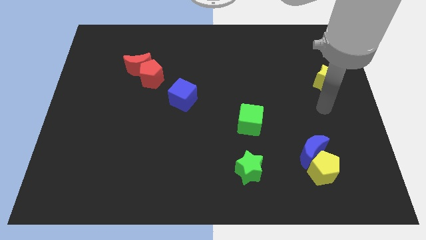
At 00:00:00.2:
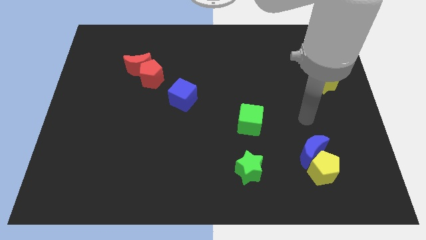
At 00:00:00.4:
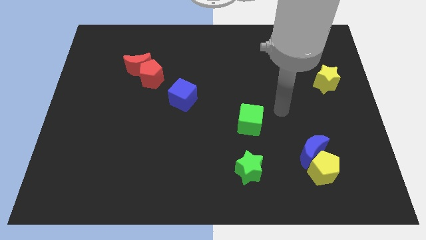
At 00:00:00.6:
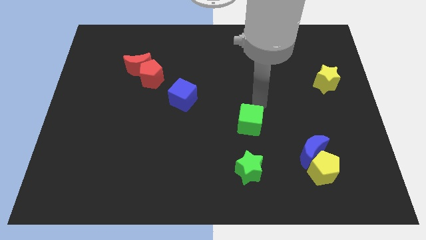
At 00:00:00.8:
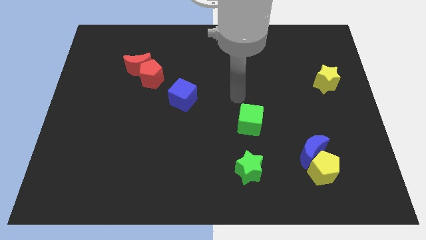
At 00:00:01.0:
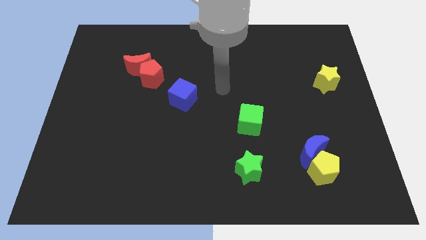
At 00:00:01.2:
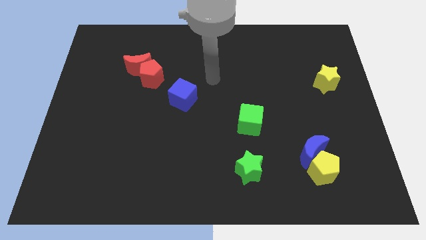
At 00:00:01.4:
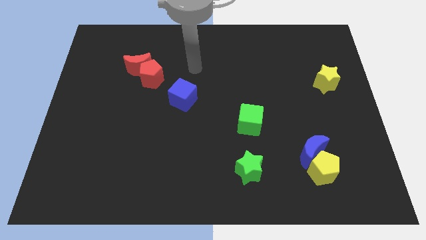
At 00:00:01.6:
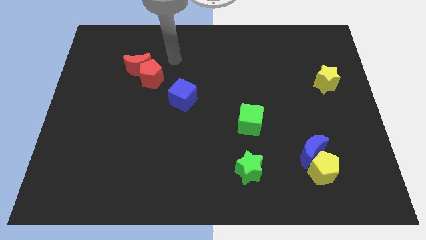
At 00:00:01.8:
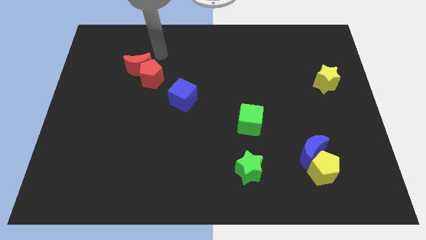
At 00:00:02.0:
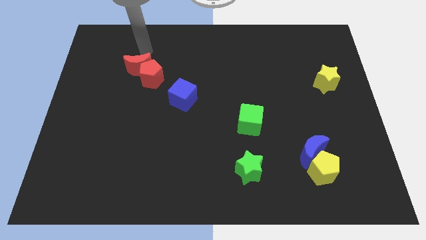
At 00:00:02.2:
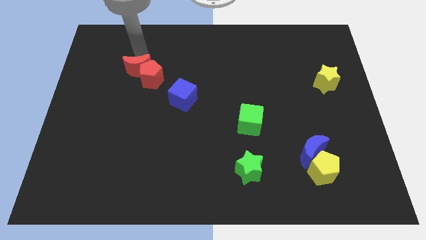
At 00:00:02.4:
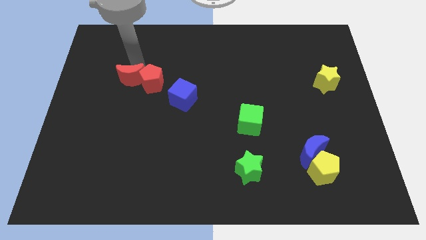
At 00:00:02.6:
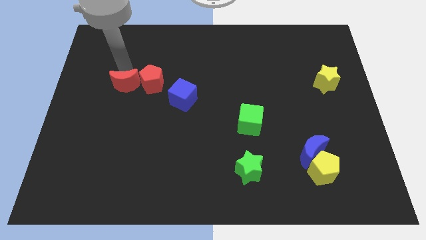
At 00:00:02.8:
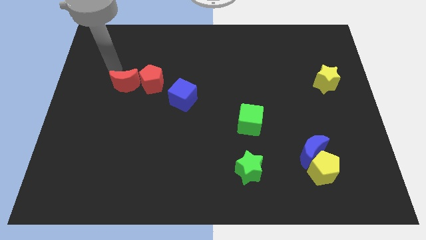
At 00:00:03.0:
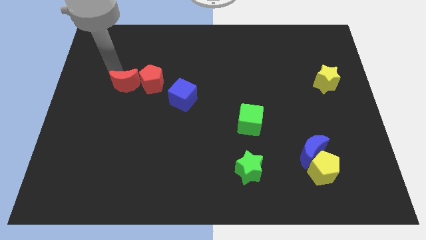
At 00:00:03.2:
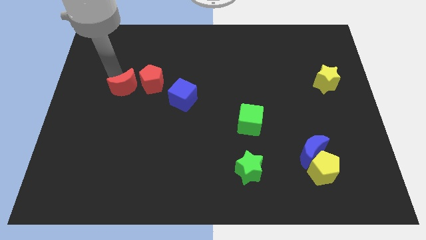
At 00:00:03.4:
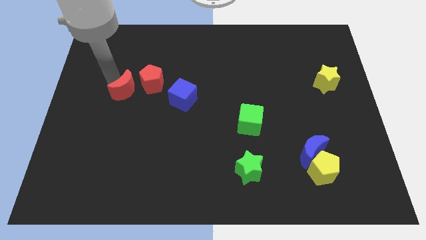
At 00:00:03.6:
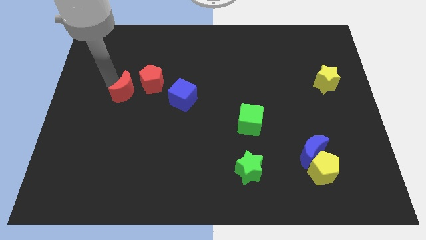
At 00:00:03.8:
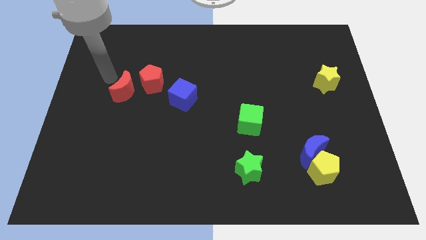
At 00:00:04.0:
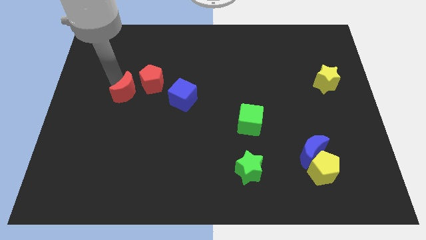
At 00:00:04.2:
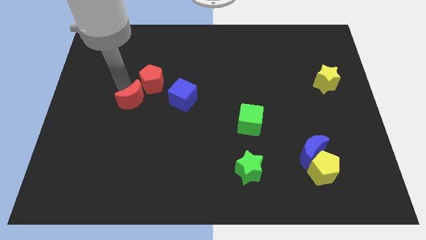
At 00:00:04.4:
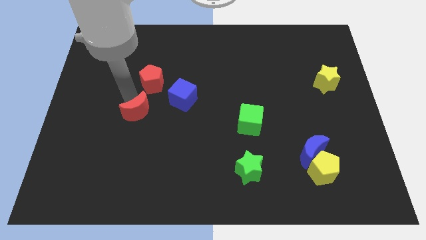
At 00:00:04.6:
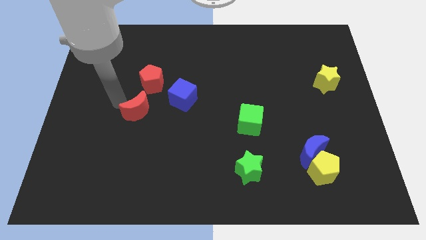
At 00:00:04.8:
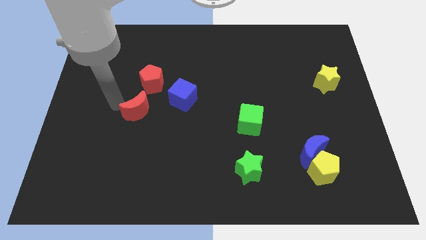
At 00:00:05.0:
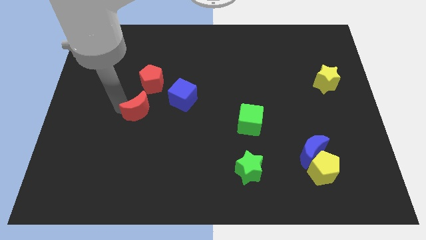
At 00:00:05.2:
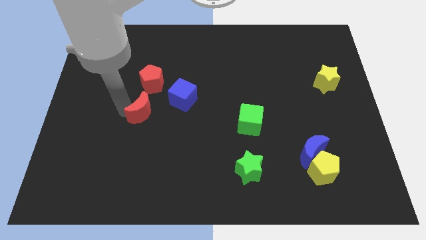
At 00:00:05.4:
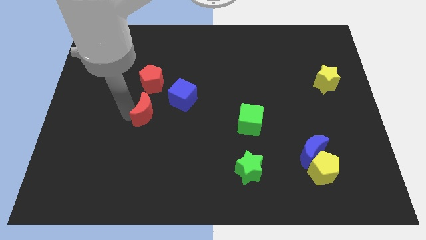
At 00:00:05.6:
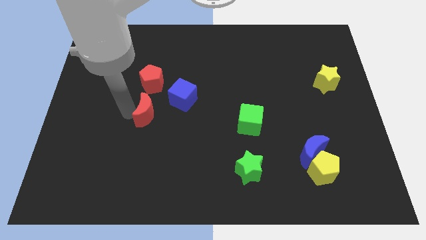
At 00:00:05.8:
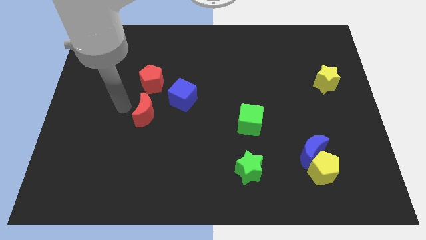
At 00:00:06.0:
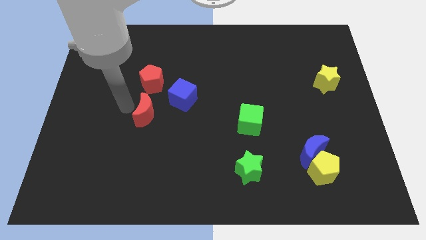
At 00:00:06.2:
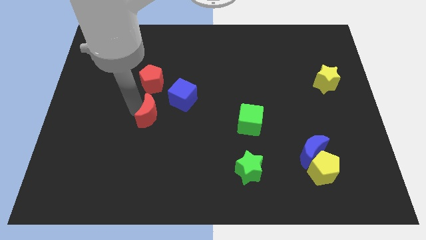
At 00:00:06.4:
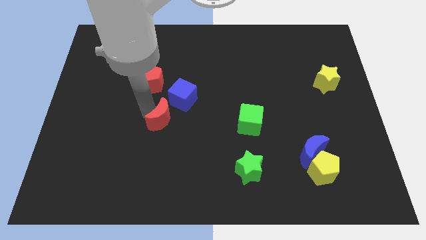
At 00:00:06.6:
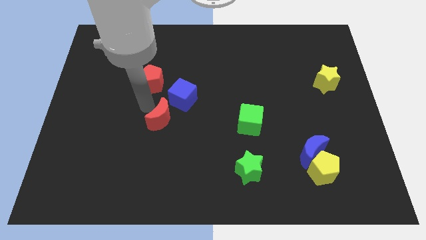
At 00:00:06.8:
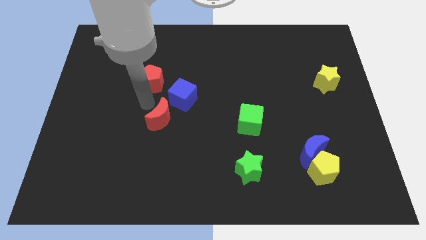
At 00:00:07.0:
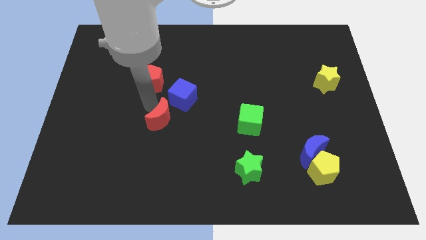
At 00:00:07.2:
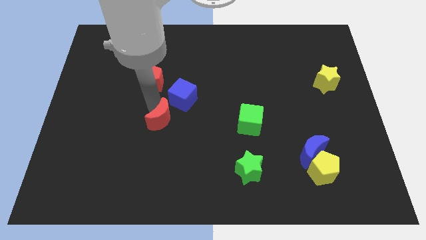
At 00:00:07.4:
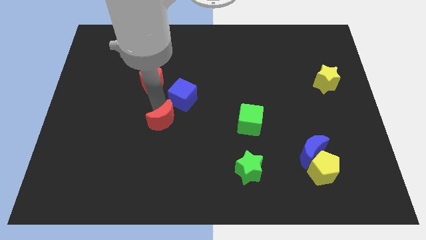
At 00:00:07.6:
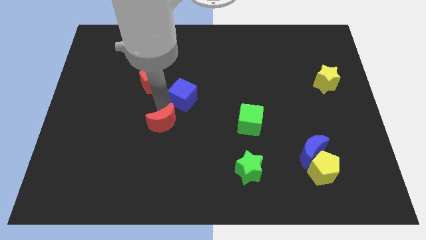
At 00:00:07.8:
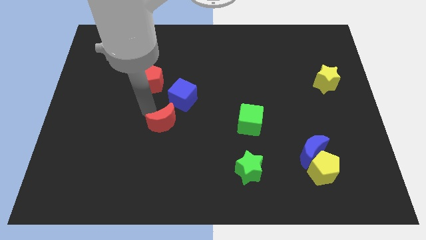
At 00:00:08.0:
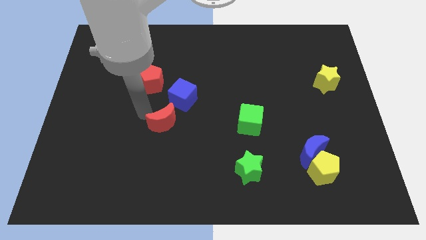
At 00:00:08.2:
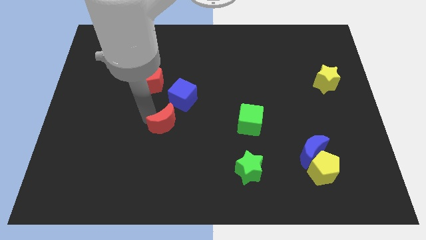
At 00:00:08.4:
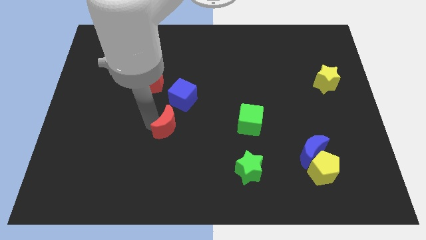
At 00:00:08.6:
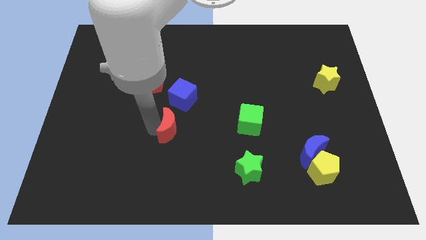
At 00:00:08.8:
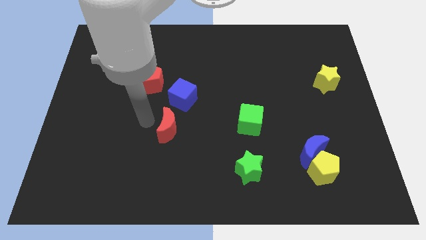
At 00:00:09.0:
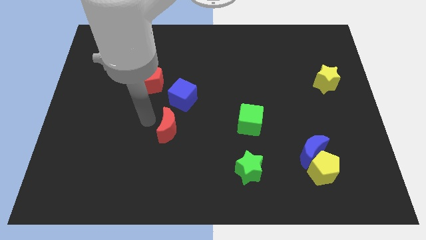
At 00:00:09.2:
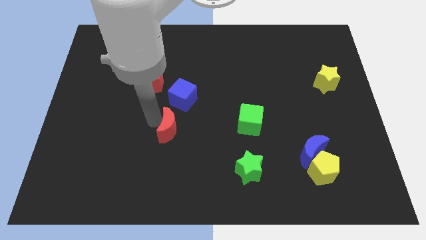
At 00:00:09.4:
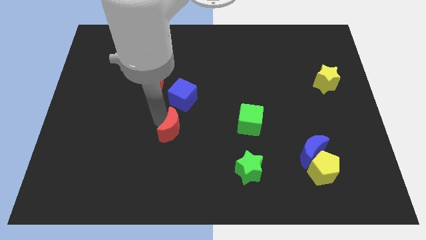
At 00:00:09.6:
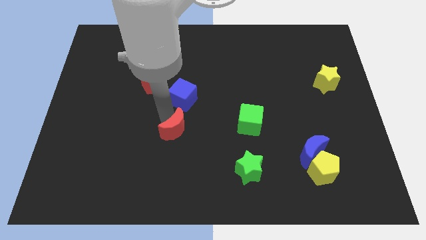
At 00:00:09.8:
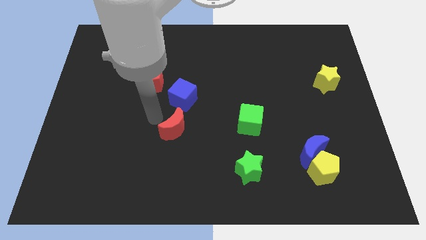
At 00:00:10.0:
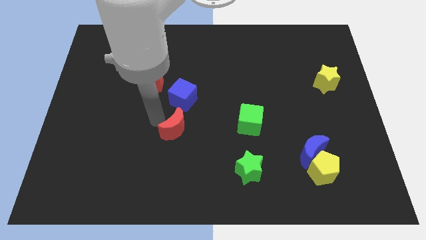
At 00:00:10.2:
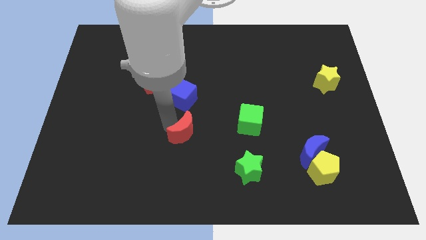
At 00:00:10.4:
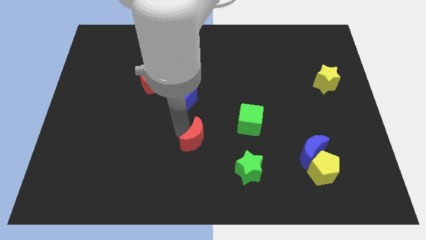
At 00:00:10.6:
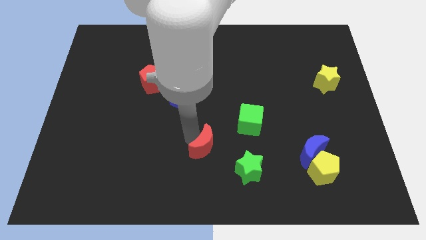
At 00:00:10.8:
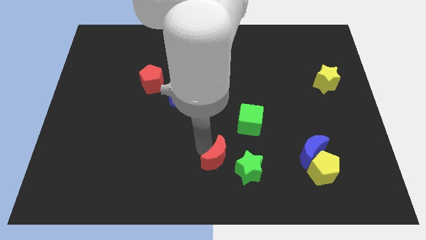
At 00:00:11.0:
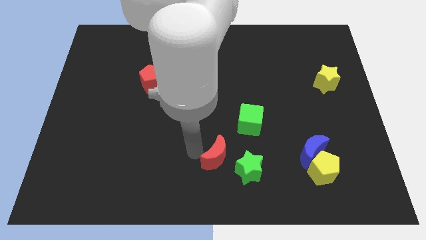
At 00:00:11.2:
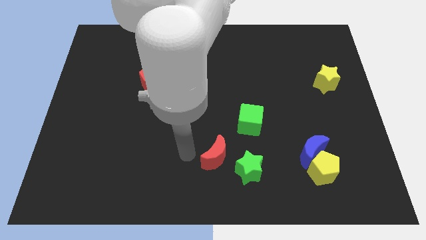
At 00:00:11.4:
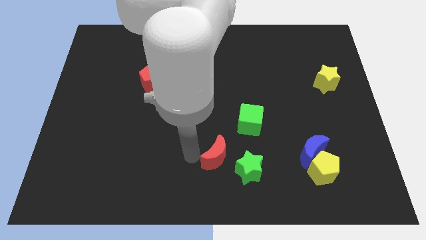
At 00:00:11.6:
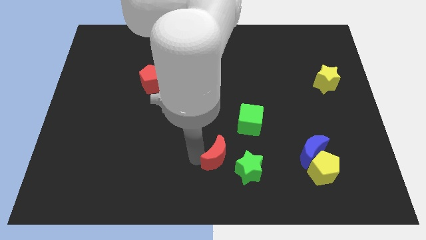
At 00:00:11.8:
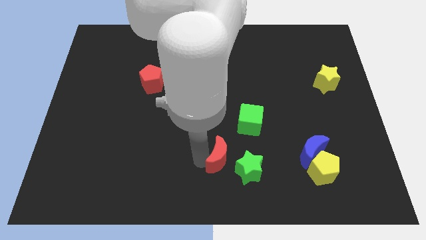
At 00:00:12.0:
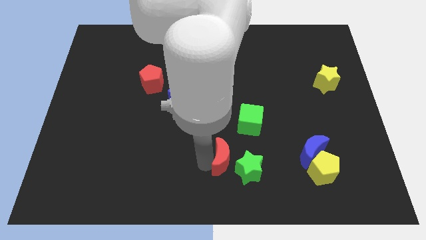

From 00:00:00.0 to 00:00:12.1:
push the red moon towards the green star

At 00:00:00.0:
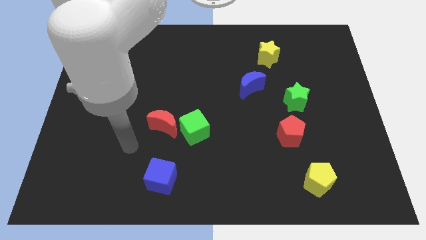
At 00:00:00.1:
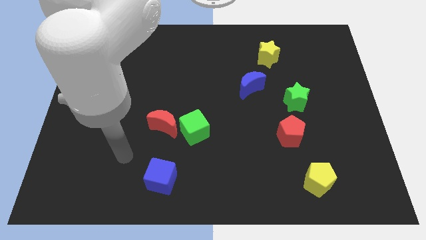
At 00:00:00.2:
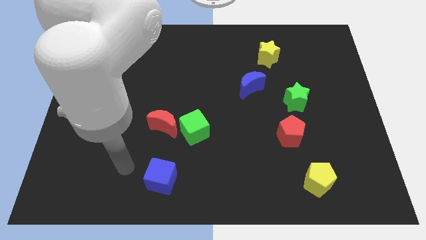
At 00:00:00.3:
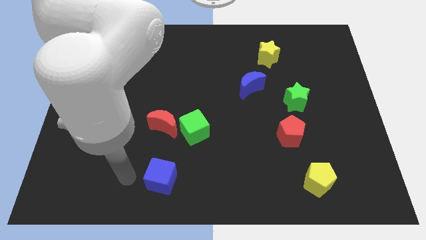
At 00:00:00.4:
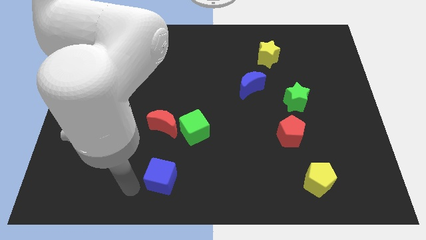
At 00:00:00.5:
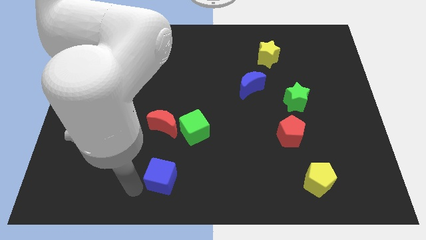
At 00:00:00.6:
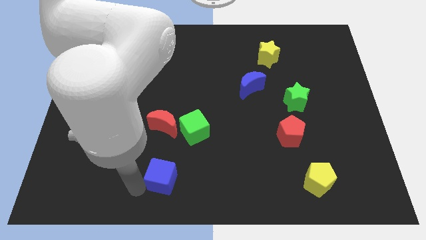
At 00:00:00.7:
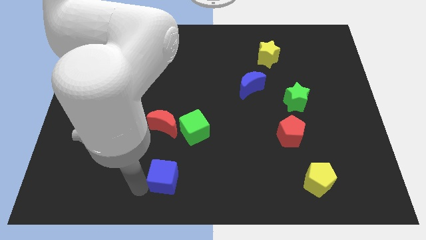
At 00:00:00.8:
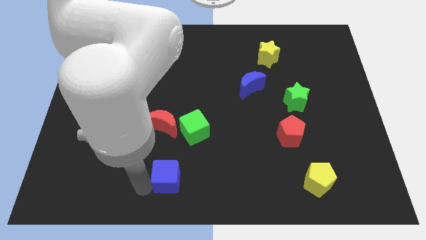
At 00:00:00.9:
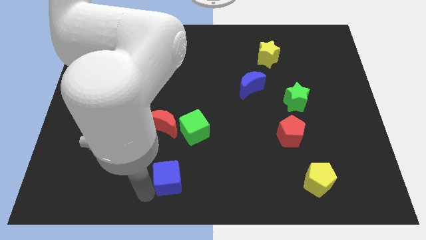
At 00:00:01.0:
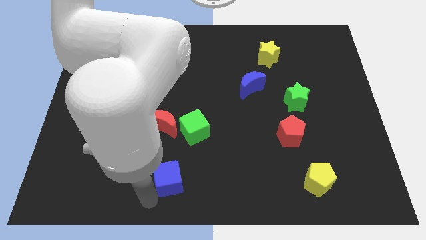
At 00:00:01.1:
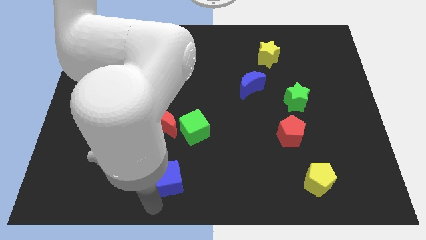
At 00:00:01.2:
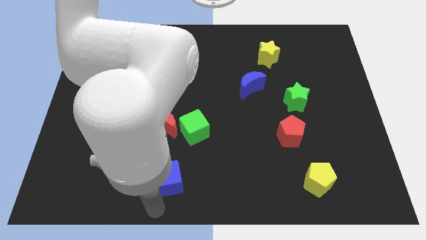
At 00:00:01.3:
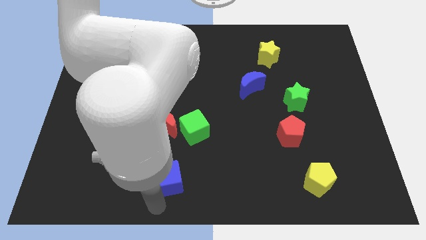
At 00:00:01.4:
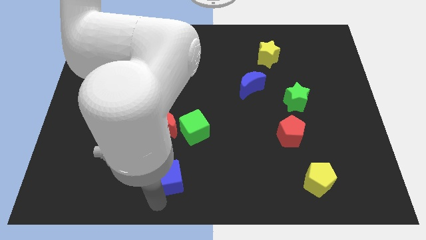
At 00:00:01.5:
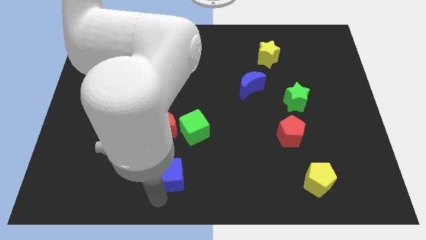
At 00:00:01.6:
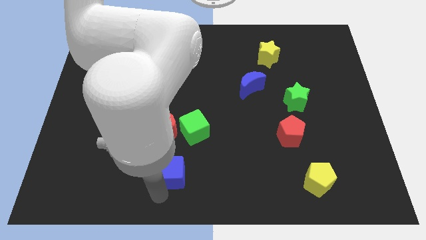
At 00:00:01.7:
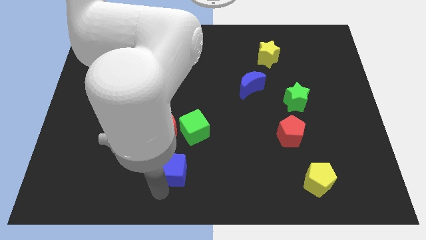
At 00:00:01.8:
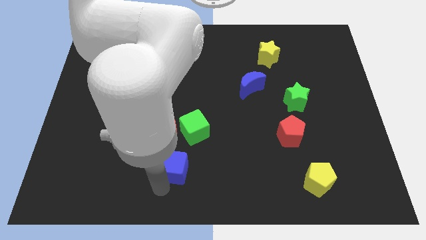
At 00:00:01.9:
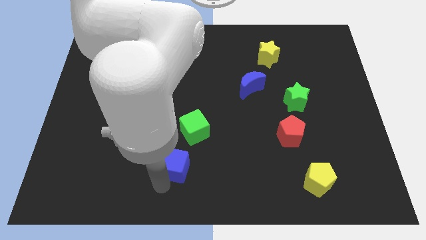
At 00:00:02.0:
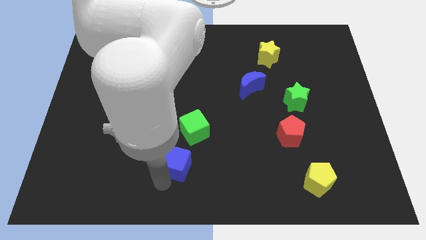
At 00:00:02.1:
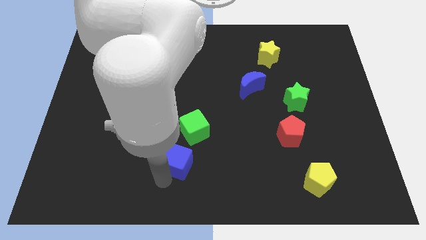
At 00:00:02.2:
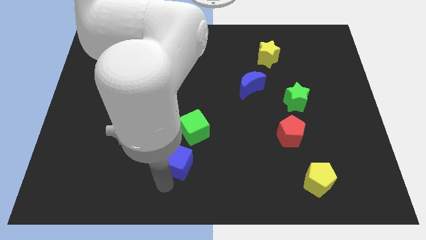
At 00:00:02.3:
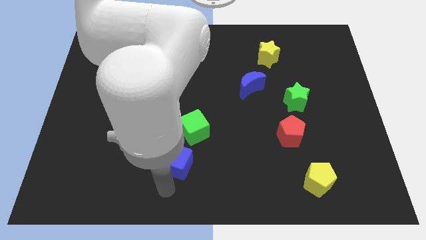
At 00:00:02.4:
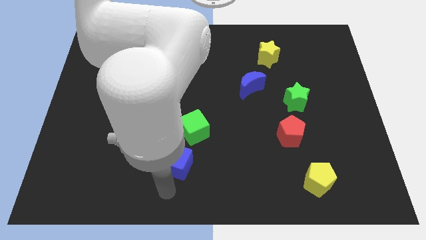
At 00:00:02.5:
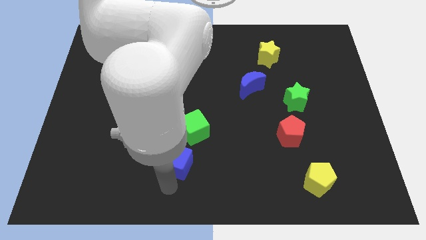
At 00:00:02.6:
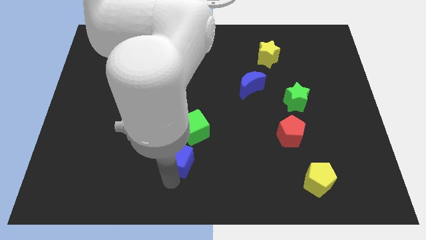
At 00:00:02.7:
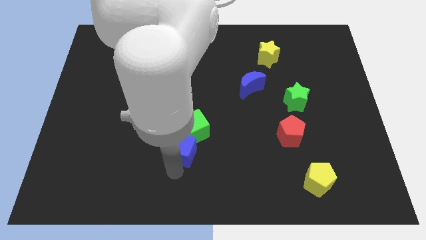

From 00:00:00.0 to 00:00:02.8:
move the blue cube towards the green cube
